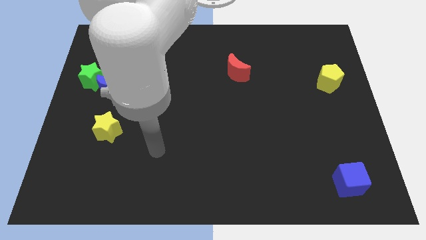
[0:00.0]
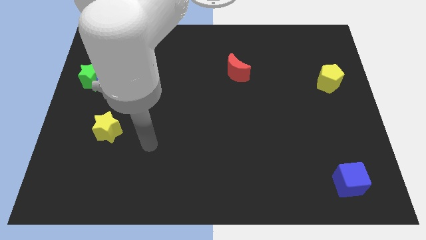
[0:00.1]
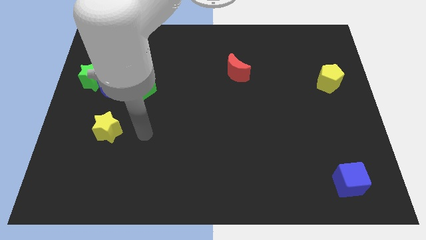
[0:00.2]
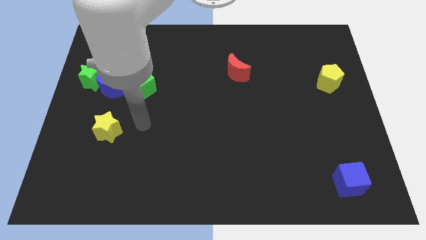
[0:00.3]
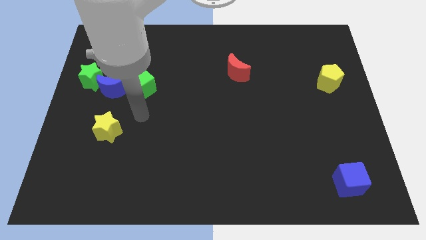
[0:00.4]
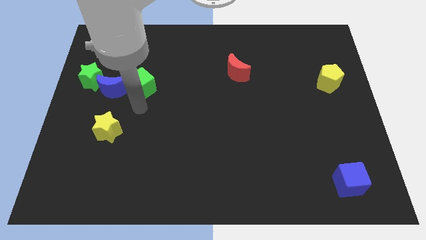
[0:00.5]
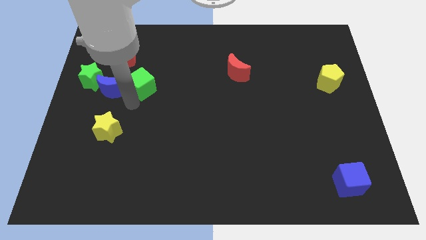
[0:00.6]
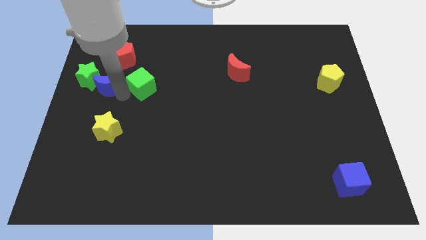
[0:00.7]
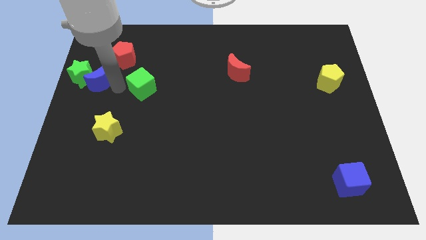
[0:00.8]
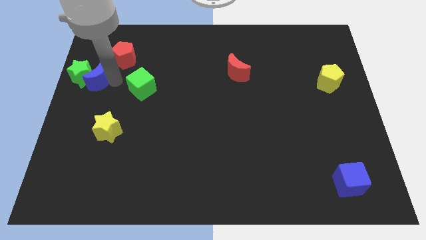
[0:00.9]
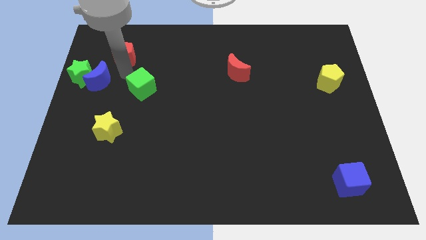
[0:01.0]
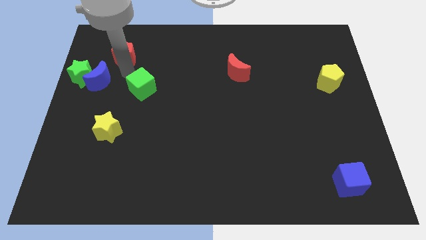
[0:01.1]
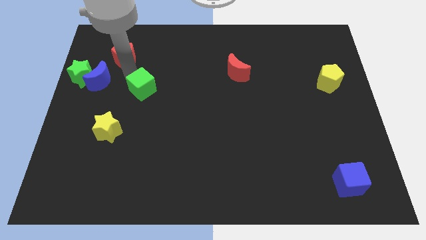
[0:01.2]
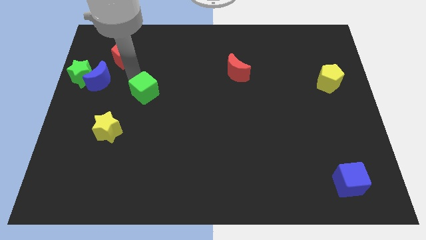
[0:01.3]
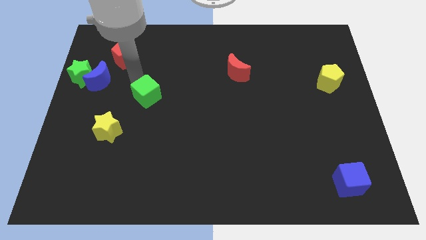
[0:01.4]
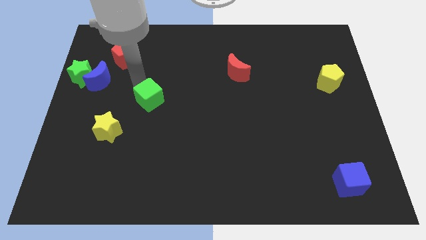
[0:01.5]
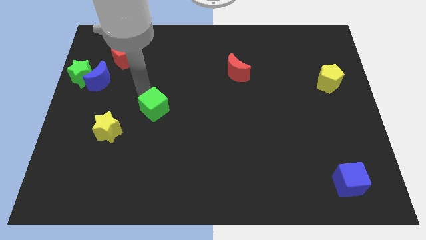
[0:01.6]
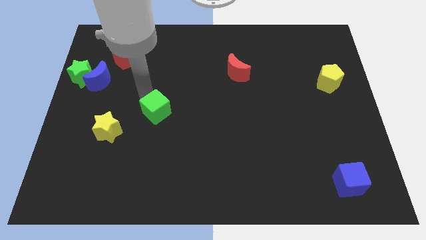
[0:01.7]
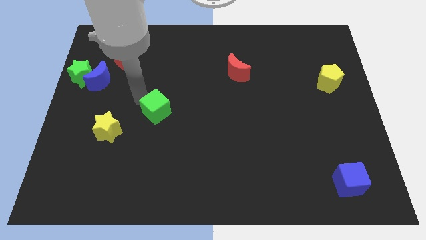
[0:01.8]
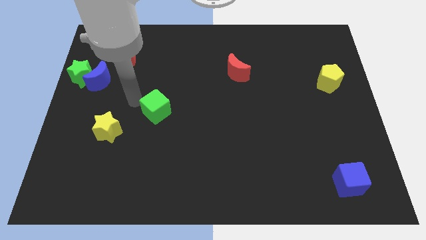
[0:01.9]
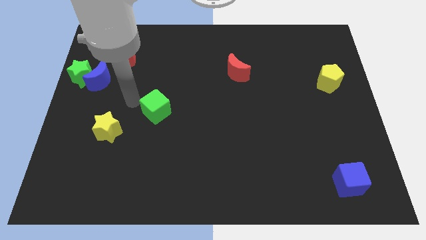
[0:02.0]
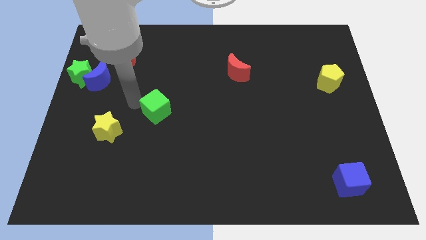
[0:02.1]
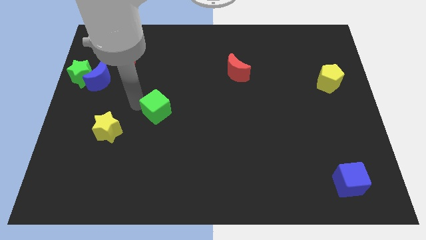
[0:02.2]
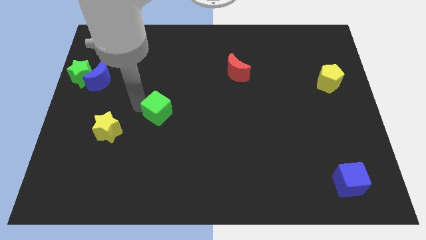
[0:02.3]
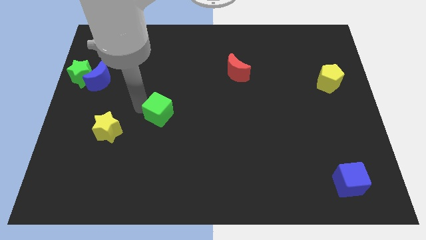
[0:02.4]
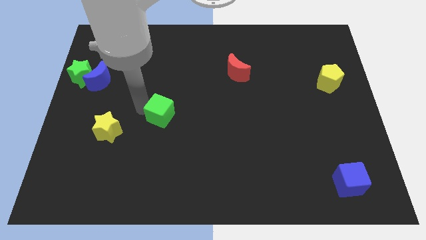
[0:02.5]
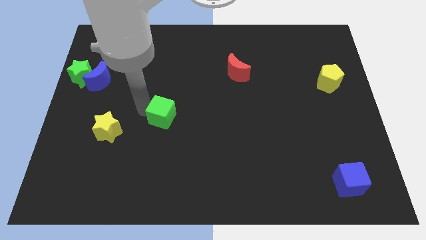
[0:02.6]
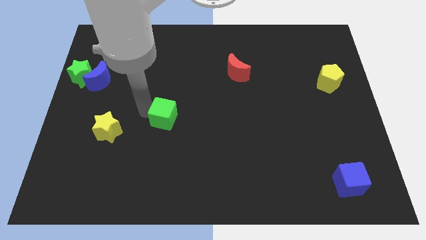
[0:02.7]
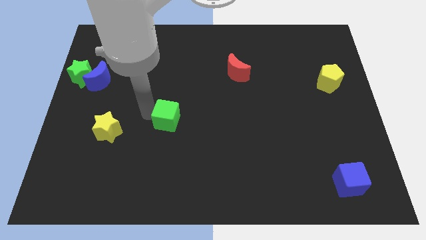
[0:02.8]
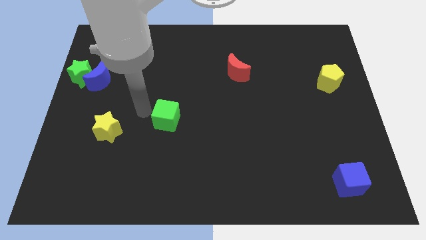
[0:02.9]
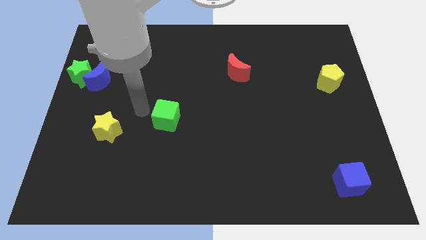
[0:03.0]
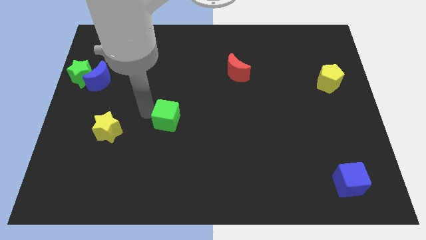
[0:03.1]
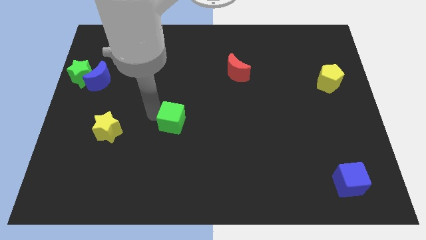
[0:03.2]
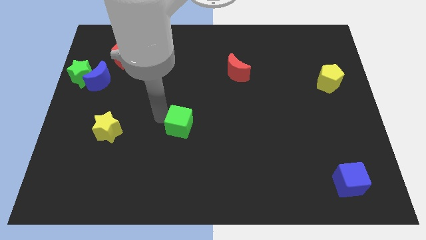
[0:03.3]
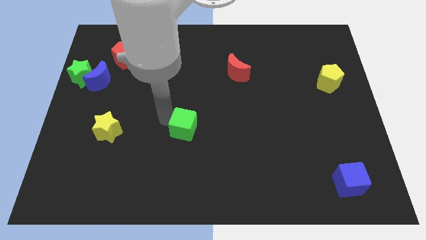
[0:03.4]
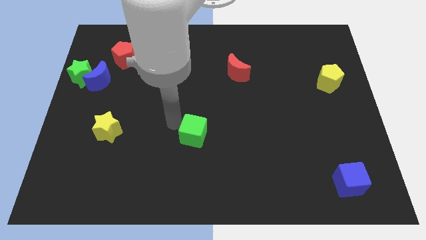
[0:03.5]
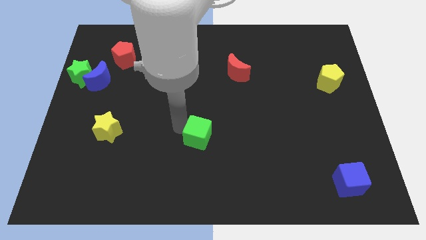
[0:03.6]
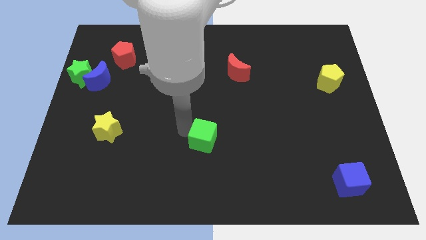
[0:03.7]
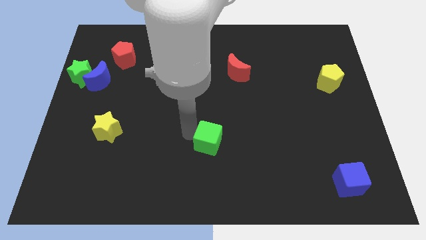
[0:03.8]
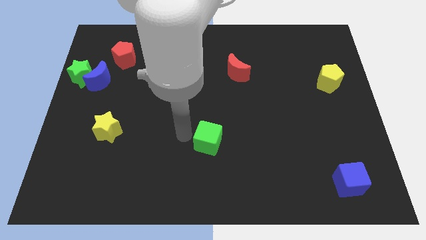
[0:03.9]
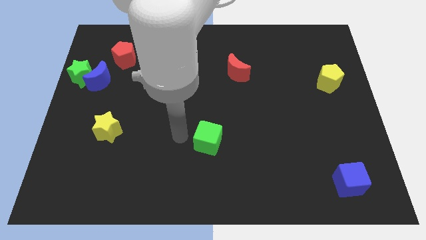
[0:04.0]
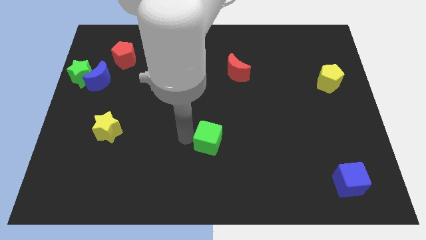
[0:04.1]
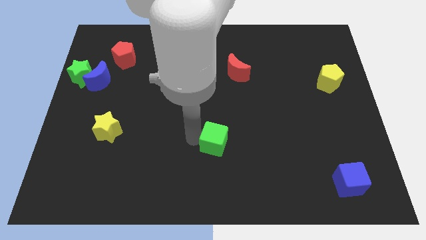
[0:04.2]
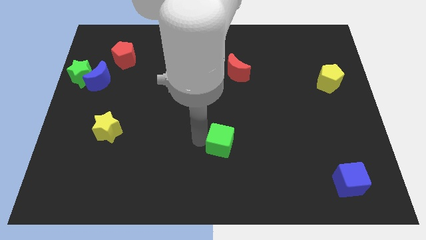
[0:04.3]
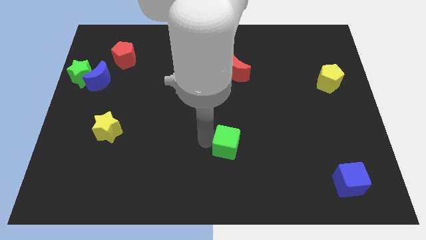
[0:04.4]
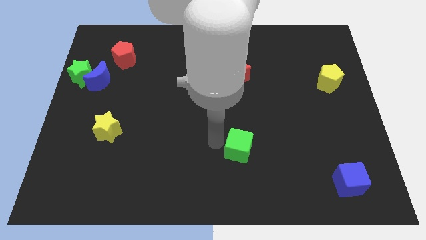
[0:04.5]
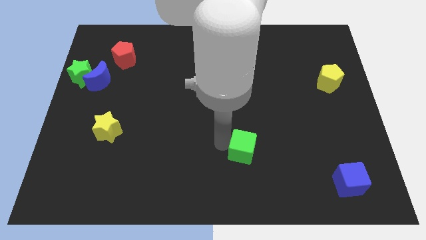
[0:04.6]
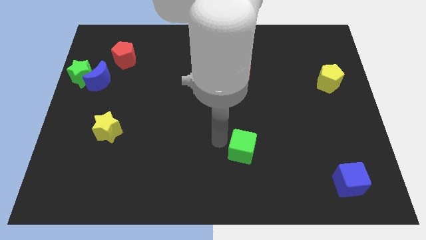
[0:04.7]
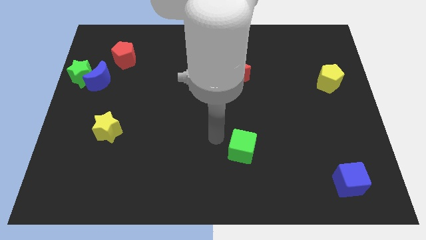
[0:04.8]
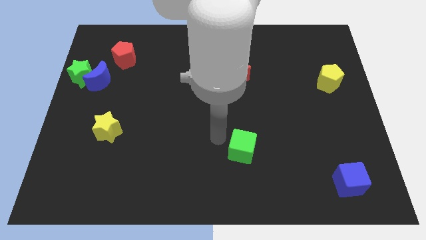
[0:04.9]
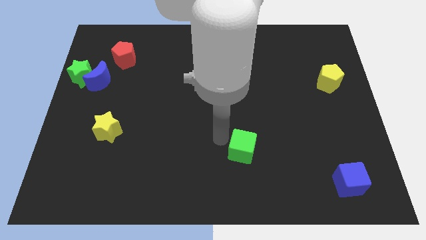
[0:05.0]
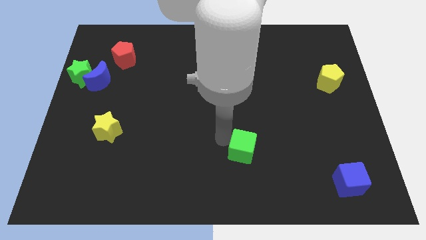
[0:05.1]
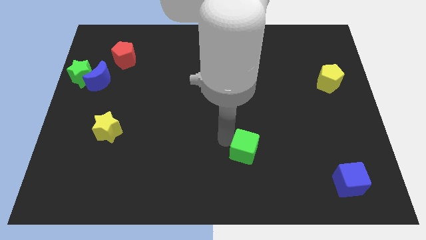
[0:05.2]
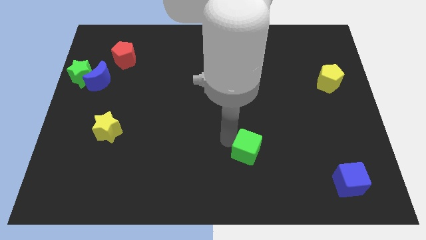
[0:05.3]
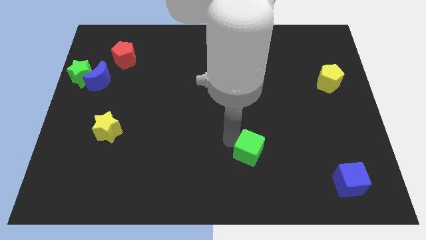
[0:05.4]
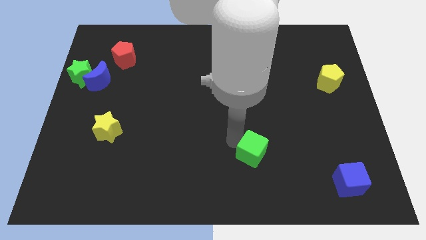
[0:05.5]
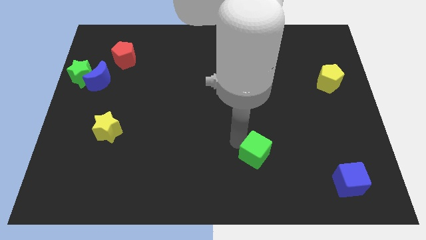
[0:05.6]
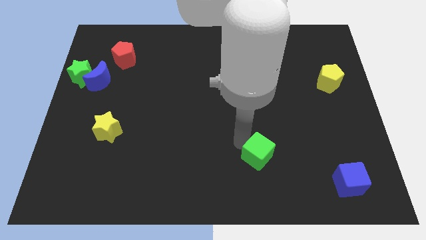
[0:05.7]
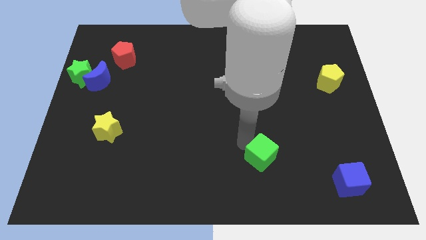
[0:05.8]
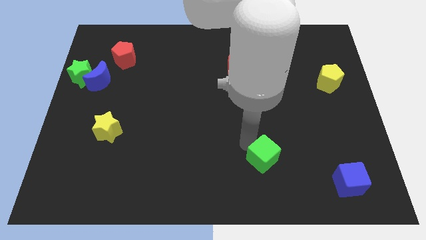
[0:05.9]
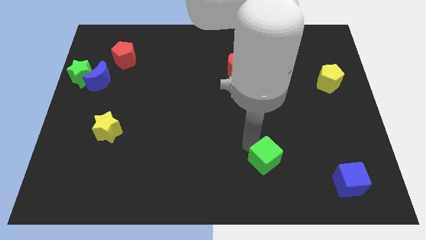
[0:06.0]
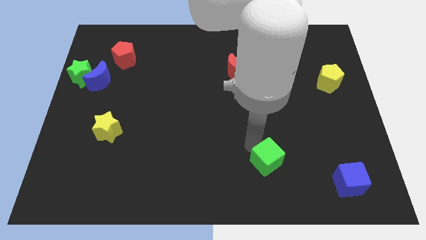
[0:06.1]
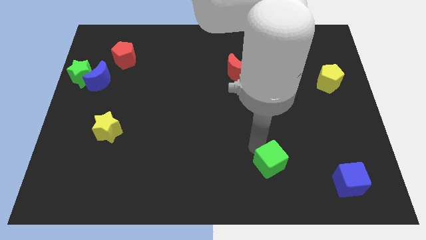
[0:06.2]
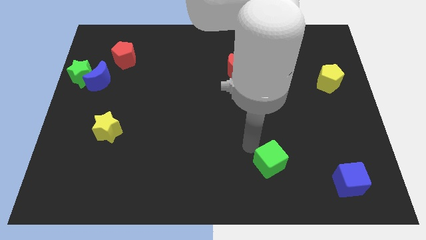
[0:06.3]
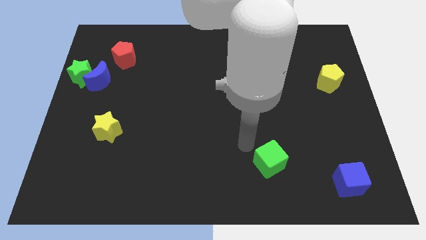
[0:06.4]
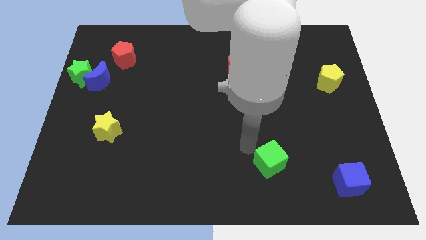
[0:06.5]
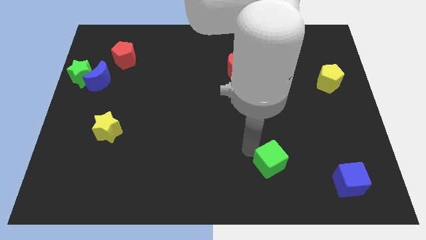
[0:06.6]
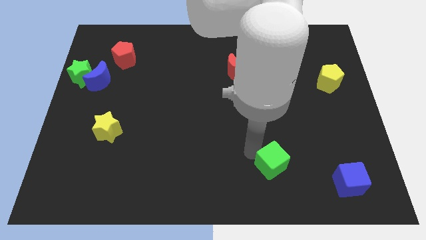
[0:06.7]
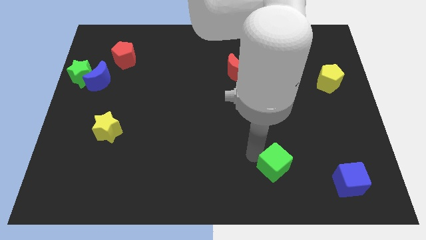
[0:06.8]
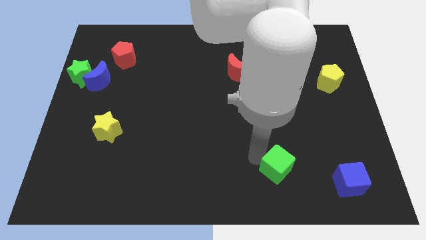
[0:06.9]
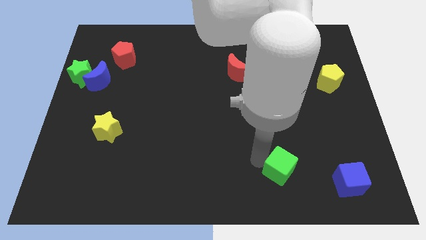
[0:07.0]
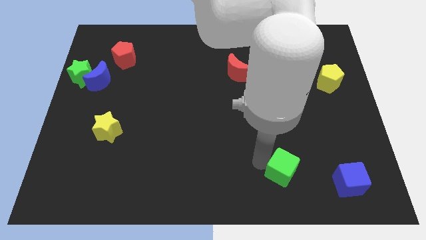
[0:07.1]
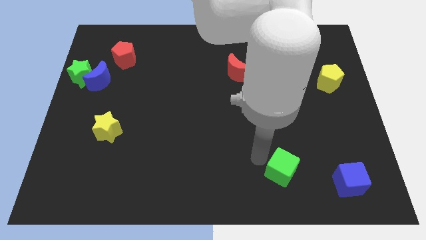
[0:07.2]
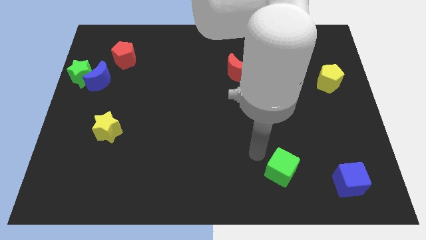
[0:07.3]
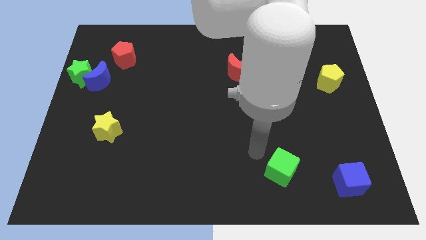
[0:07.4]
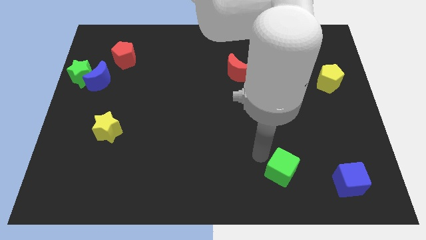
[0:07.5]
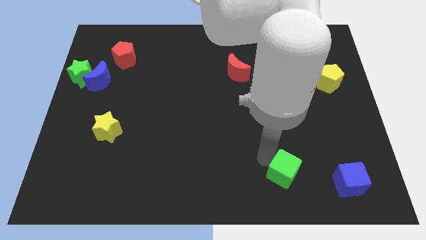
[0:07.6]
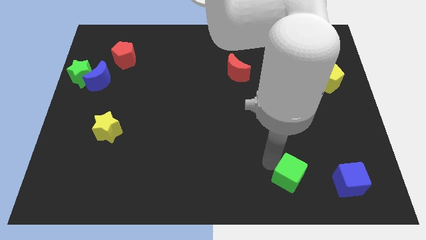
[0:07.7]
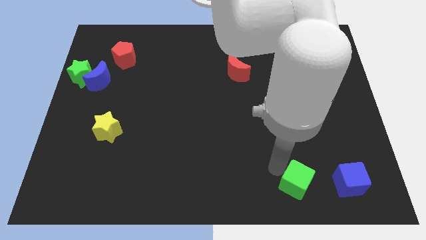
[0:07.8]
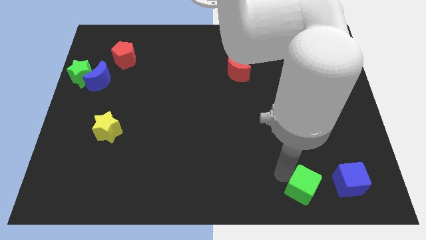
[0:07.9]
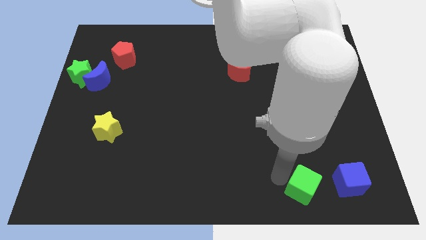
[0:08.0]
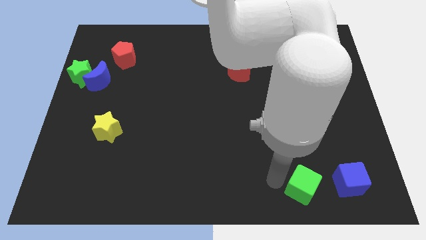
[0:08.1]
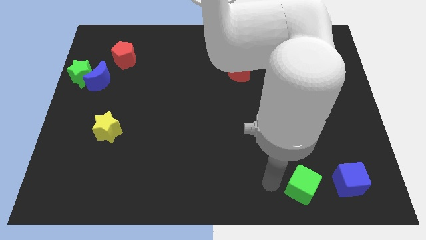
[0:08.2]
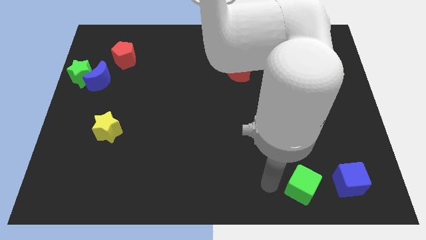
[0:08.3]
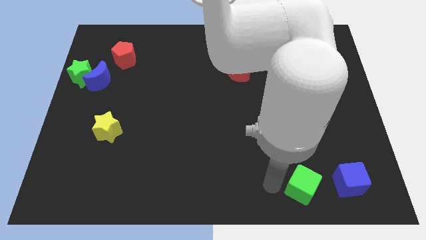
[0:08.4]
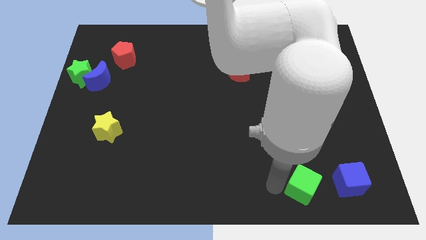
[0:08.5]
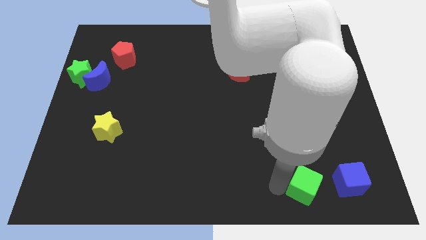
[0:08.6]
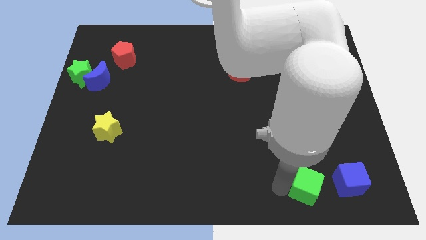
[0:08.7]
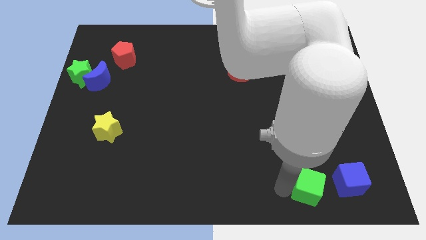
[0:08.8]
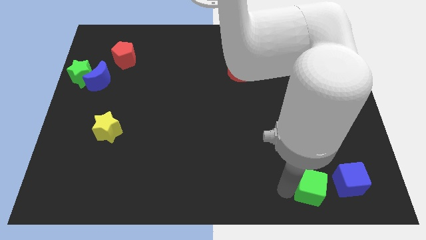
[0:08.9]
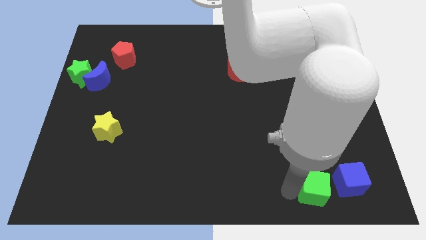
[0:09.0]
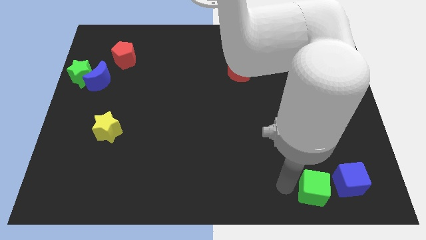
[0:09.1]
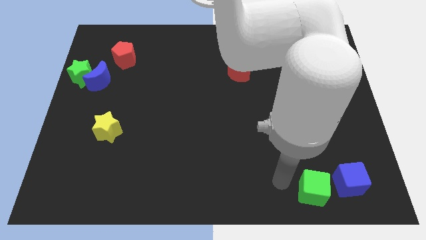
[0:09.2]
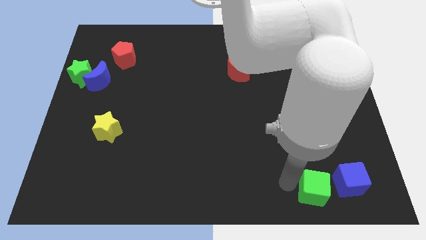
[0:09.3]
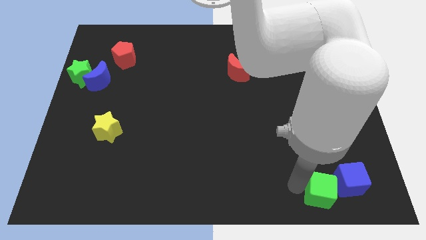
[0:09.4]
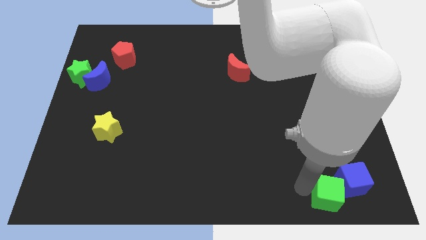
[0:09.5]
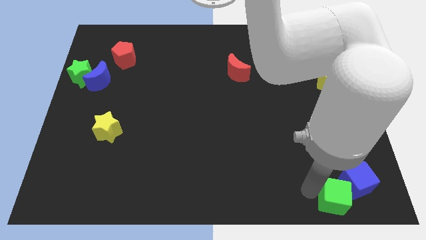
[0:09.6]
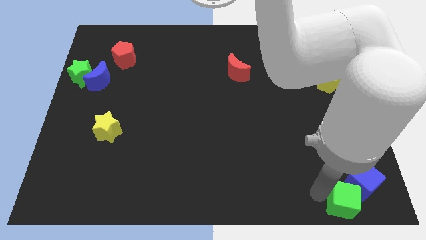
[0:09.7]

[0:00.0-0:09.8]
put the green cube to the bottom right corner
